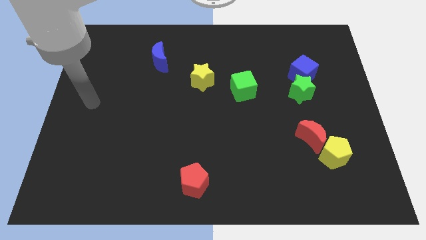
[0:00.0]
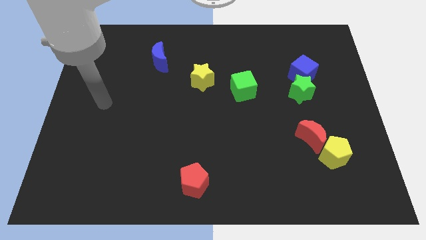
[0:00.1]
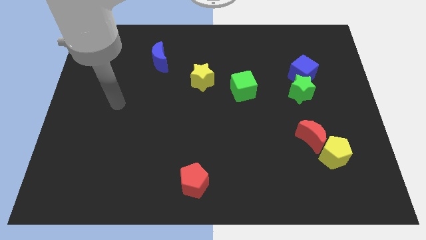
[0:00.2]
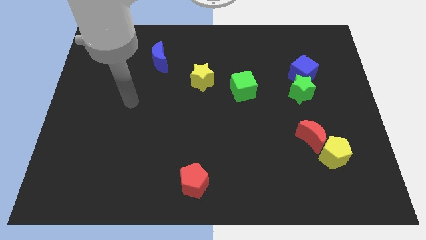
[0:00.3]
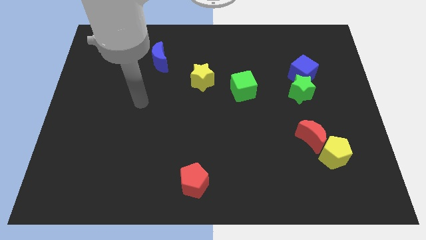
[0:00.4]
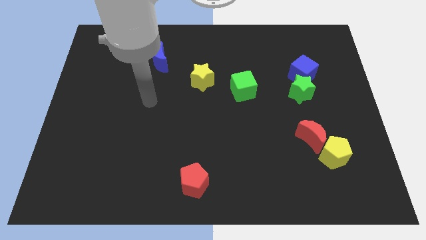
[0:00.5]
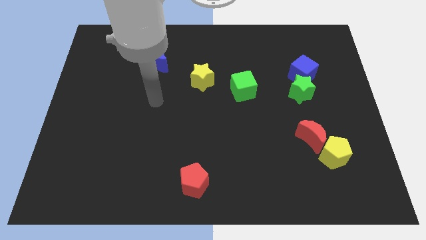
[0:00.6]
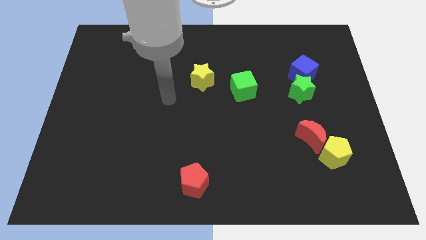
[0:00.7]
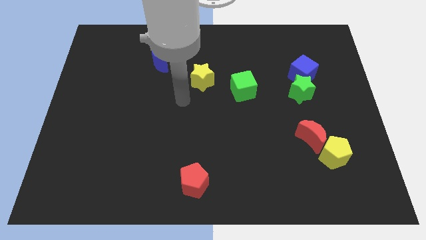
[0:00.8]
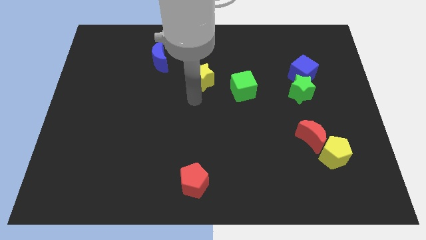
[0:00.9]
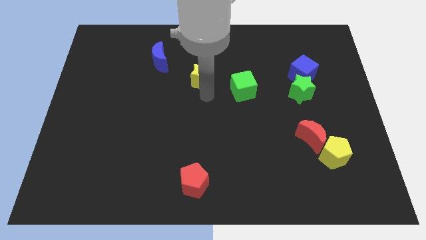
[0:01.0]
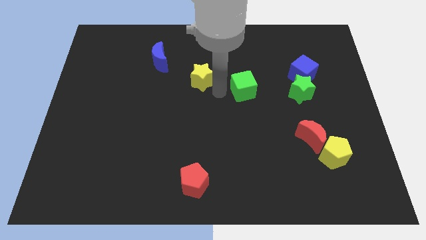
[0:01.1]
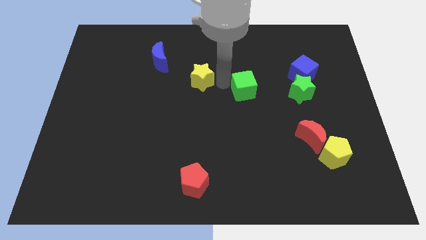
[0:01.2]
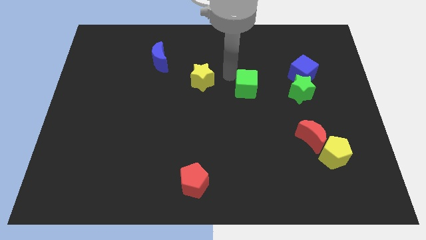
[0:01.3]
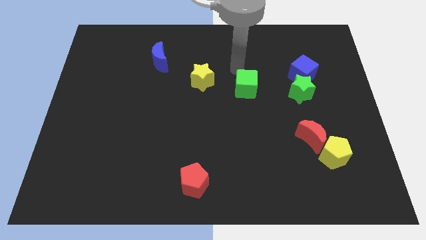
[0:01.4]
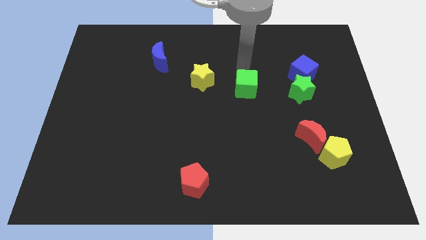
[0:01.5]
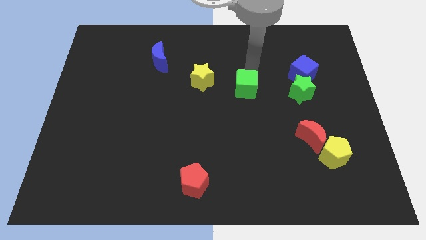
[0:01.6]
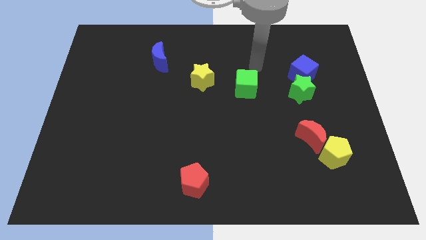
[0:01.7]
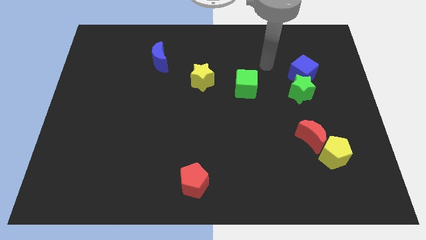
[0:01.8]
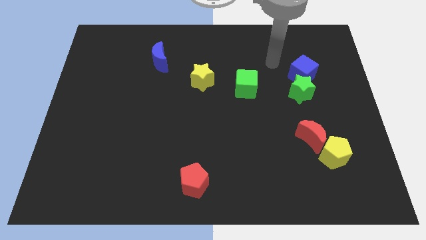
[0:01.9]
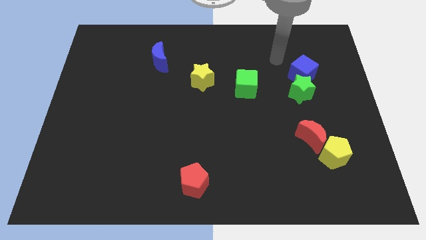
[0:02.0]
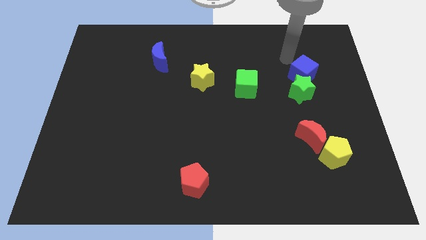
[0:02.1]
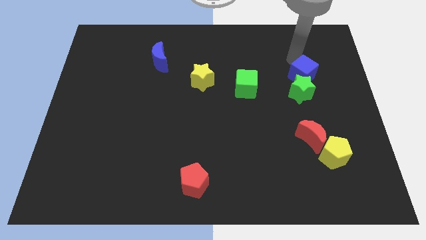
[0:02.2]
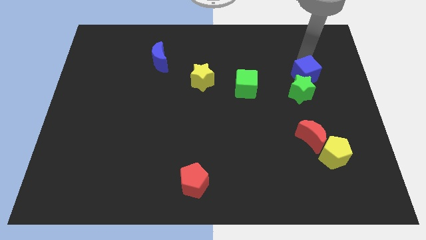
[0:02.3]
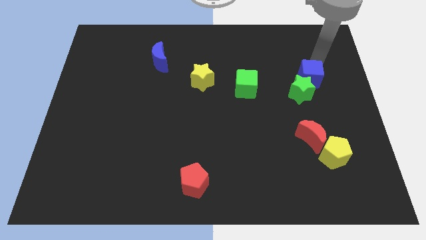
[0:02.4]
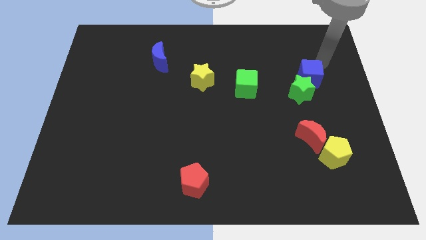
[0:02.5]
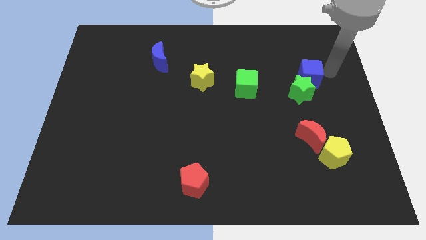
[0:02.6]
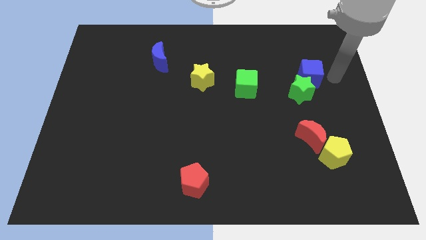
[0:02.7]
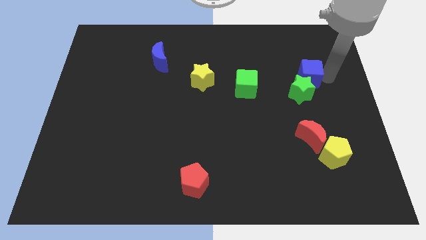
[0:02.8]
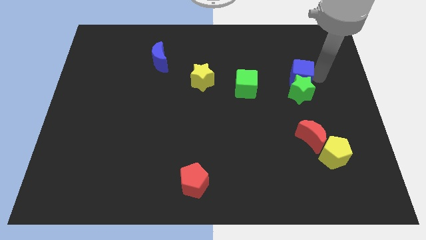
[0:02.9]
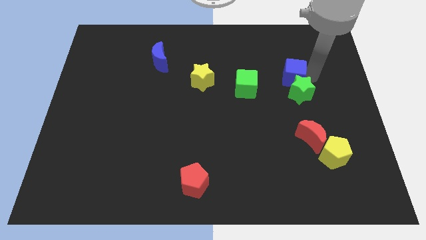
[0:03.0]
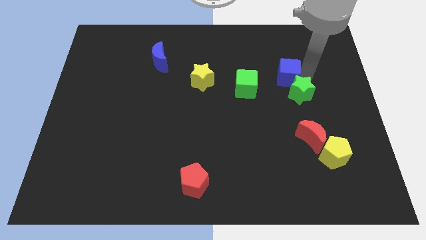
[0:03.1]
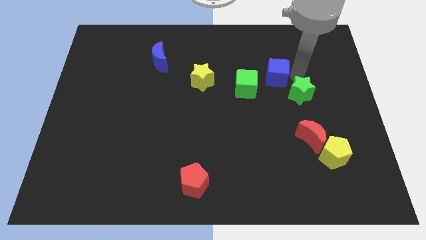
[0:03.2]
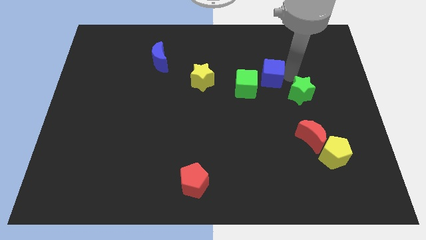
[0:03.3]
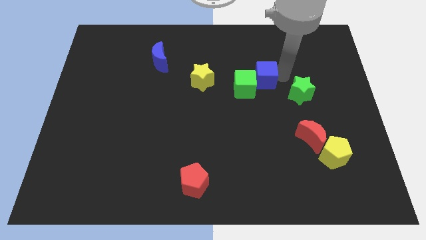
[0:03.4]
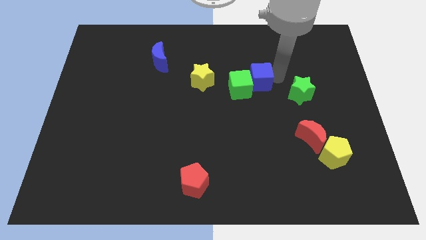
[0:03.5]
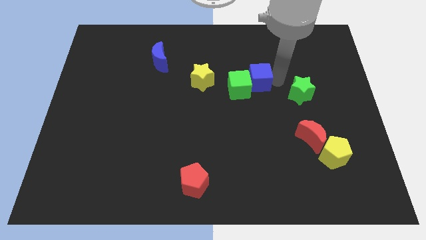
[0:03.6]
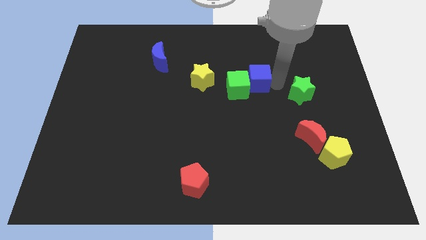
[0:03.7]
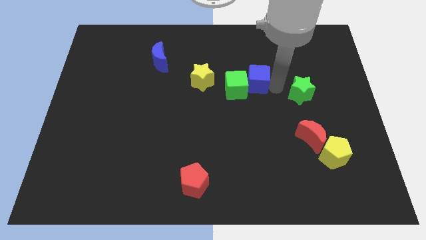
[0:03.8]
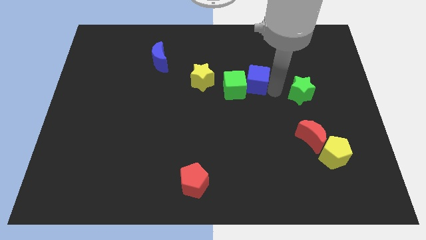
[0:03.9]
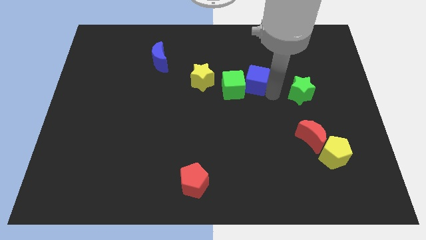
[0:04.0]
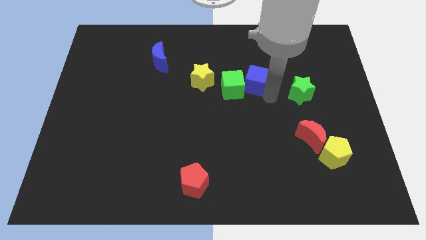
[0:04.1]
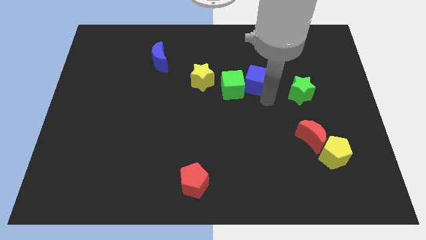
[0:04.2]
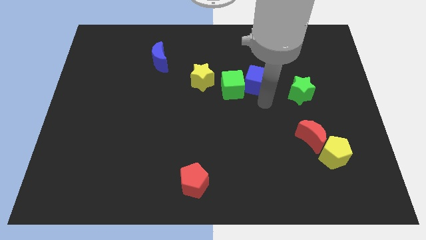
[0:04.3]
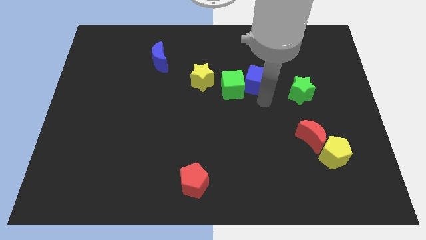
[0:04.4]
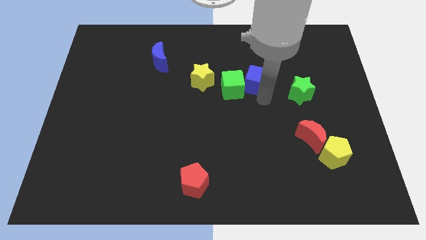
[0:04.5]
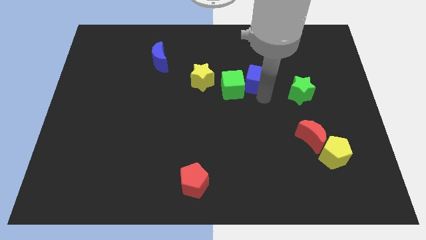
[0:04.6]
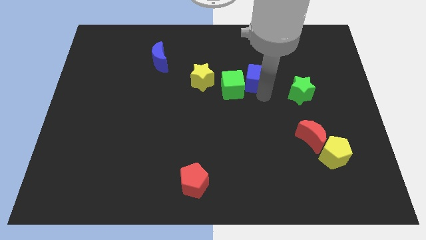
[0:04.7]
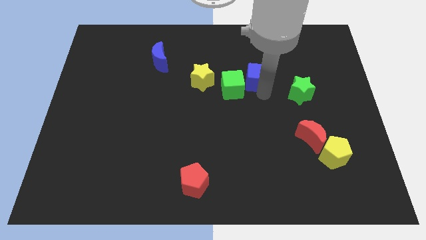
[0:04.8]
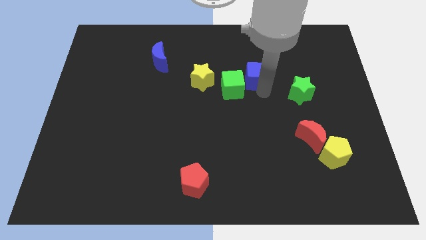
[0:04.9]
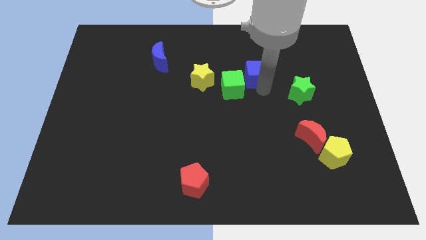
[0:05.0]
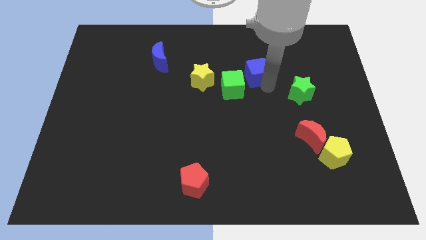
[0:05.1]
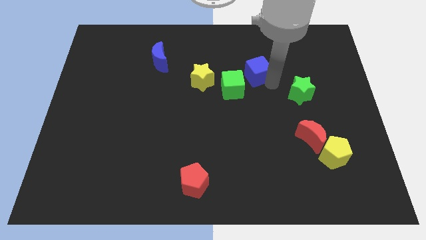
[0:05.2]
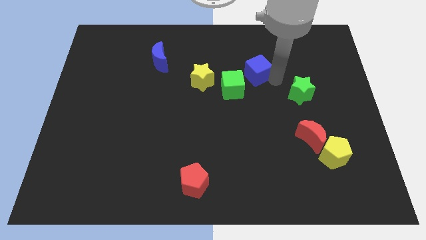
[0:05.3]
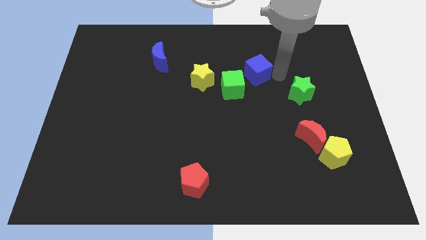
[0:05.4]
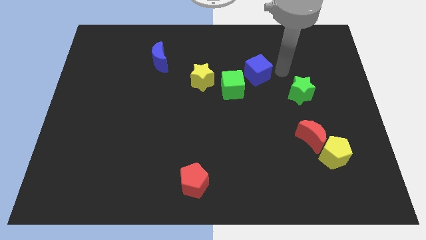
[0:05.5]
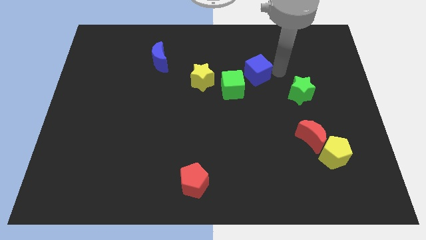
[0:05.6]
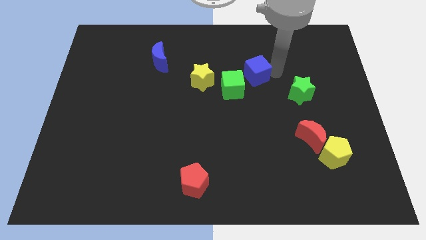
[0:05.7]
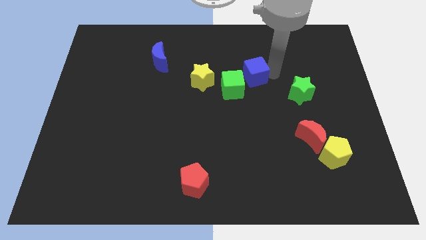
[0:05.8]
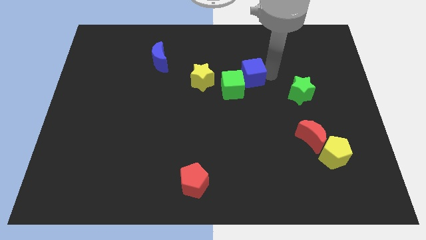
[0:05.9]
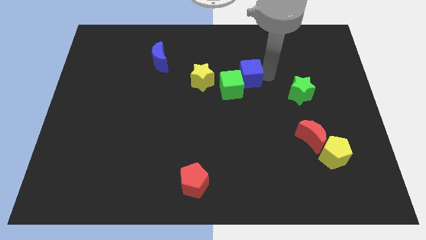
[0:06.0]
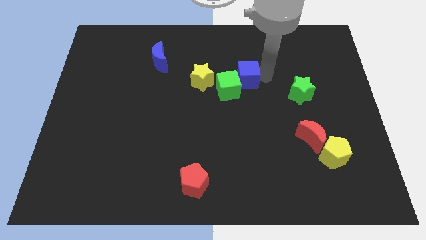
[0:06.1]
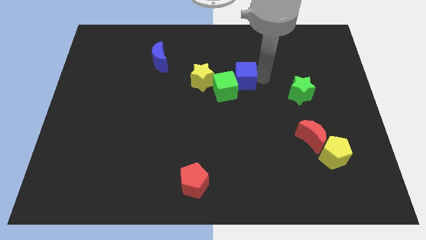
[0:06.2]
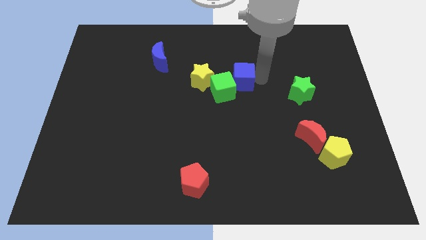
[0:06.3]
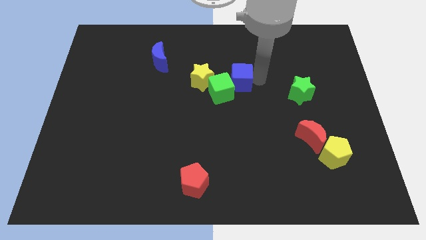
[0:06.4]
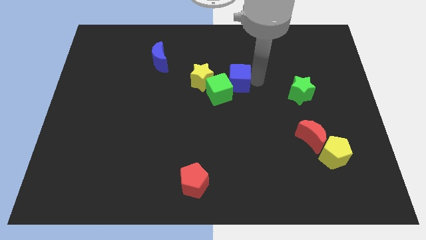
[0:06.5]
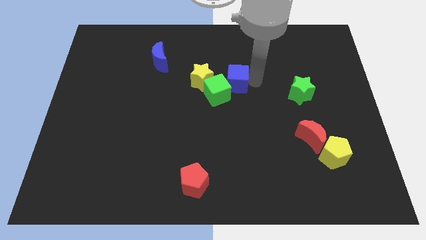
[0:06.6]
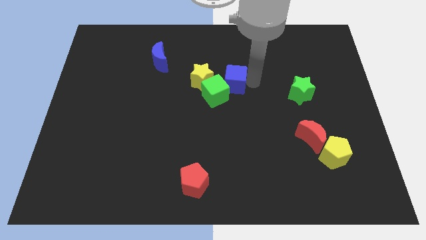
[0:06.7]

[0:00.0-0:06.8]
slide the blue cube diagonally down and to the right of the yellow star

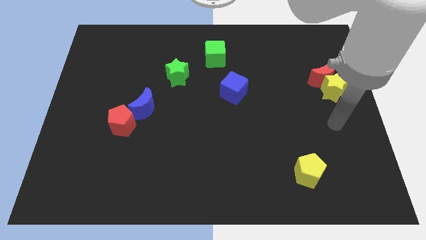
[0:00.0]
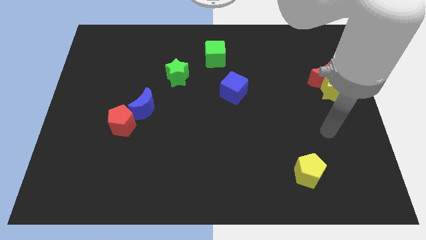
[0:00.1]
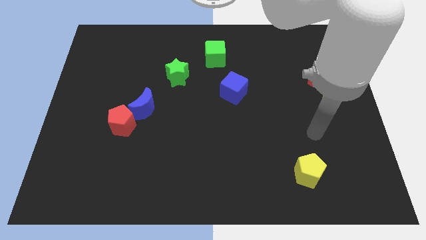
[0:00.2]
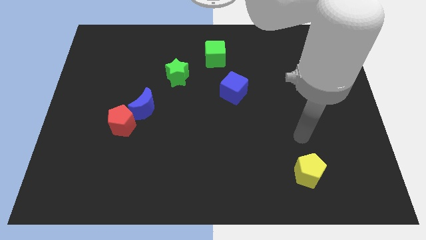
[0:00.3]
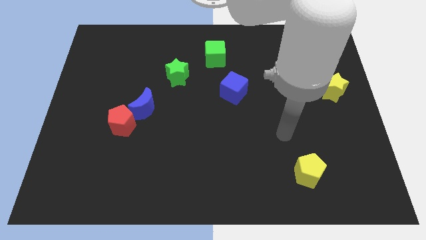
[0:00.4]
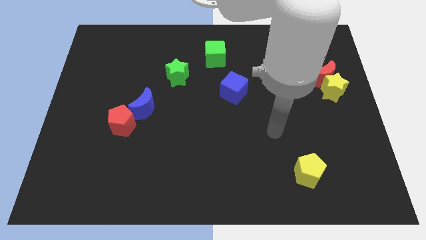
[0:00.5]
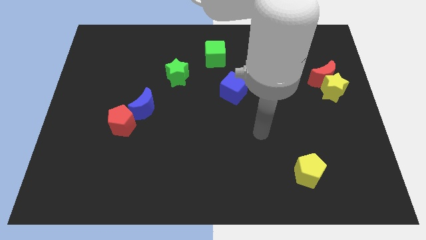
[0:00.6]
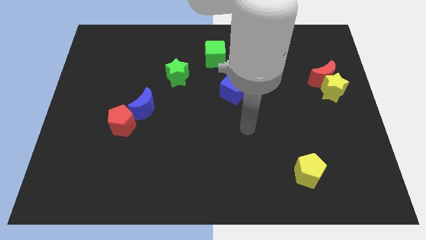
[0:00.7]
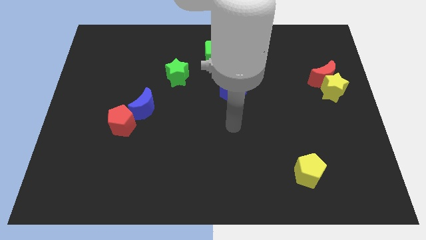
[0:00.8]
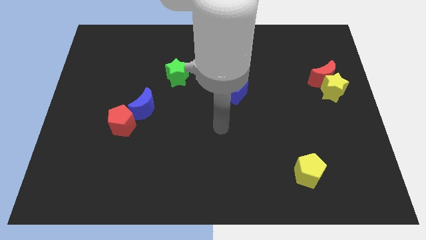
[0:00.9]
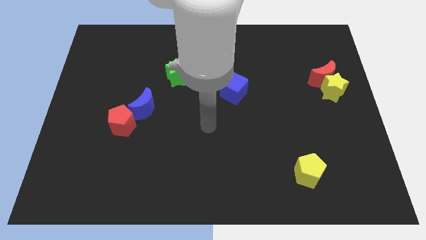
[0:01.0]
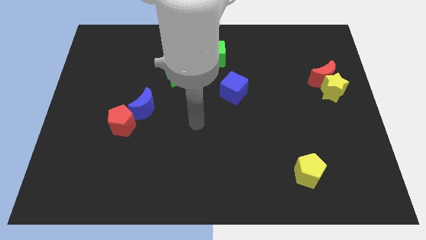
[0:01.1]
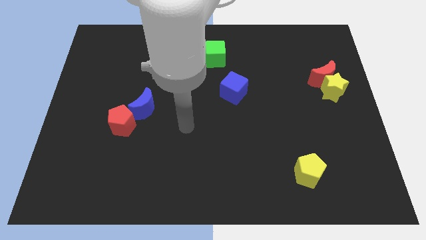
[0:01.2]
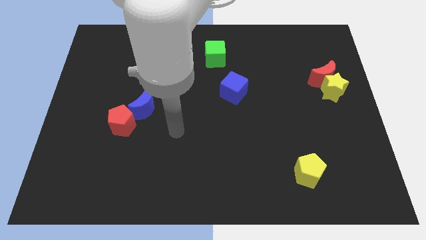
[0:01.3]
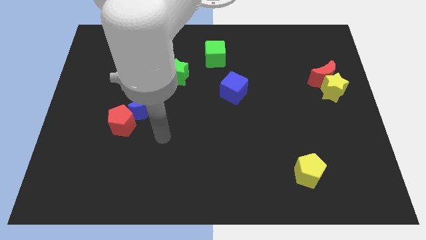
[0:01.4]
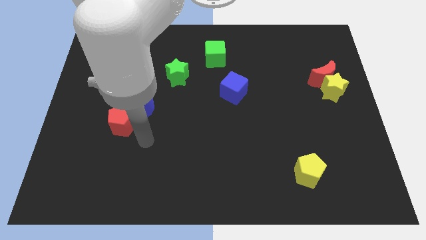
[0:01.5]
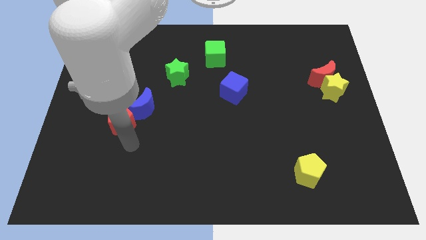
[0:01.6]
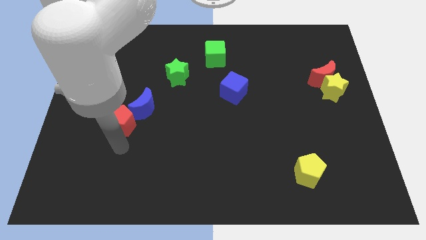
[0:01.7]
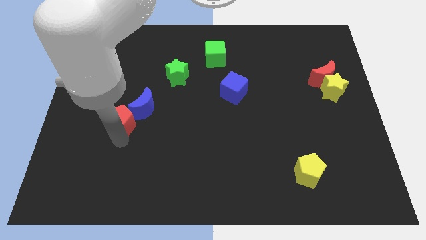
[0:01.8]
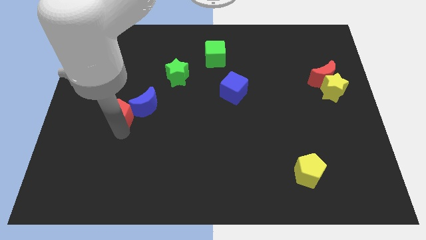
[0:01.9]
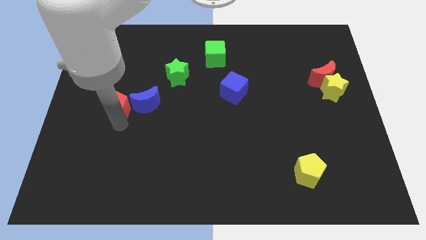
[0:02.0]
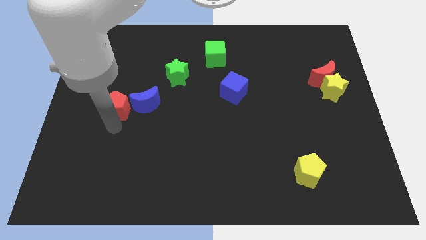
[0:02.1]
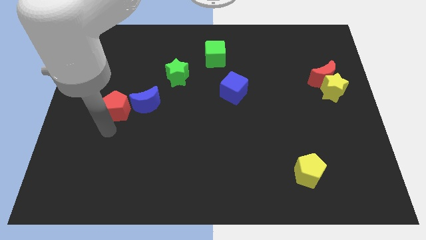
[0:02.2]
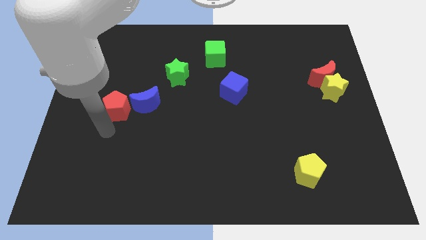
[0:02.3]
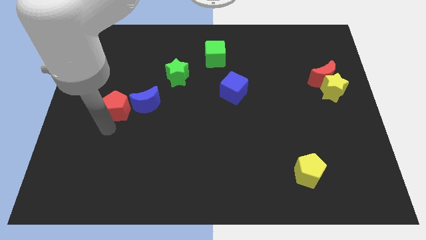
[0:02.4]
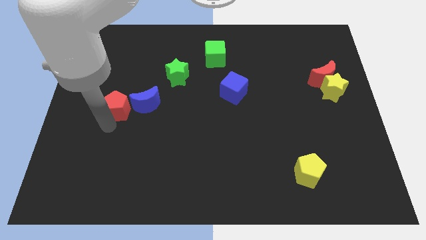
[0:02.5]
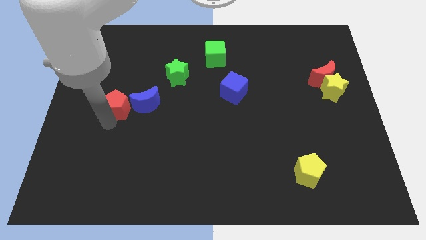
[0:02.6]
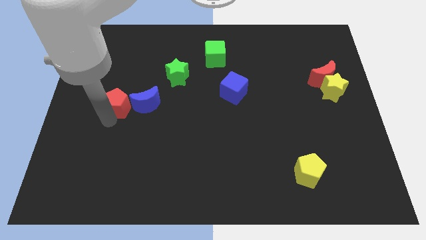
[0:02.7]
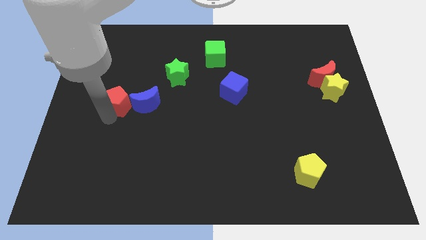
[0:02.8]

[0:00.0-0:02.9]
push the red pentagon to the top left of the blue moon
